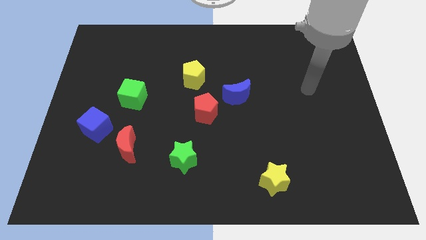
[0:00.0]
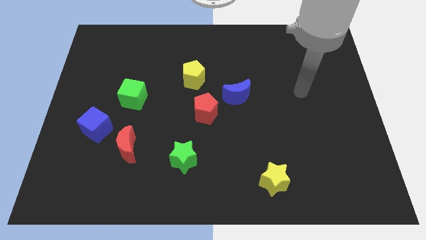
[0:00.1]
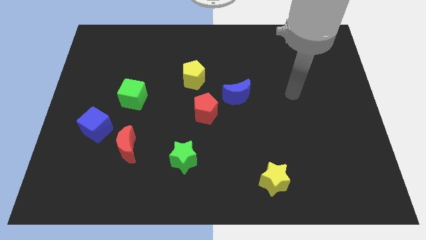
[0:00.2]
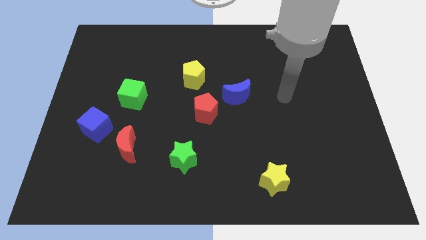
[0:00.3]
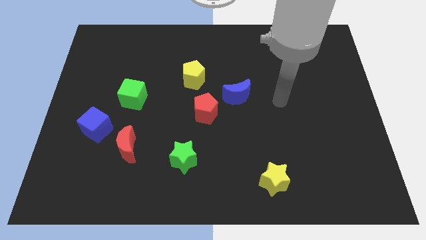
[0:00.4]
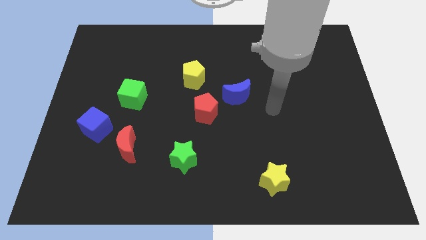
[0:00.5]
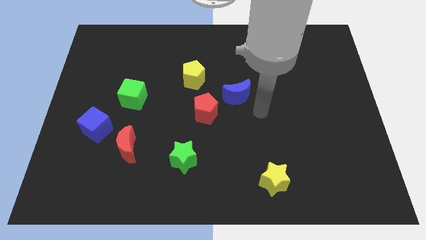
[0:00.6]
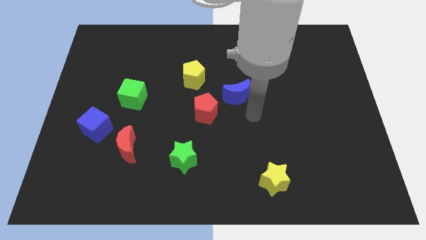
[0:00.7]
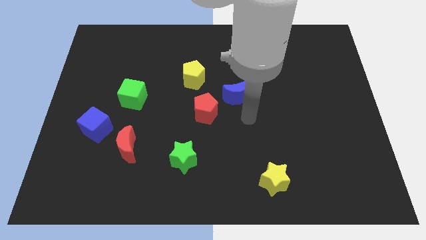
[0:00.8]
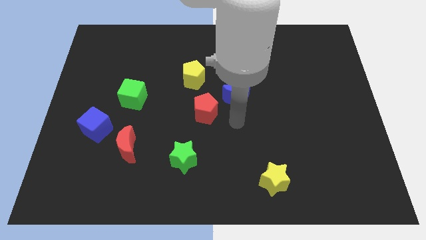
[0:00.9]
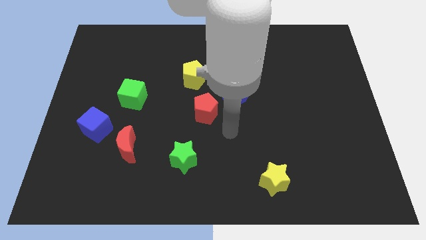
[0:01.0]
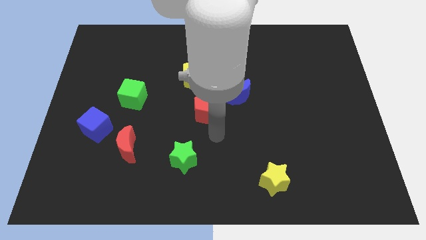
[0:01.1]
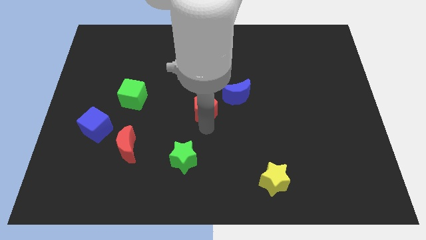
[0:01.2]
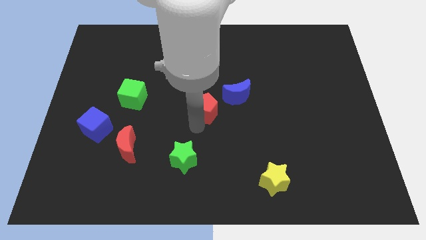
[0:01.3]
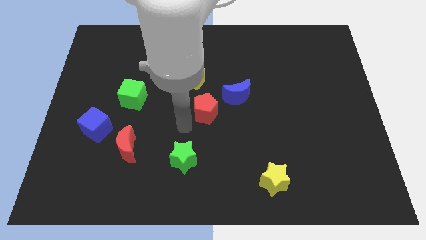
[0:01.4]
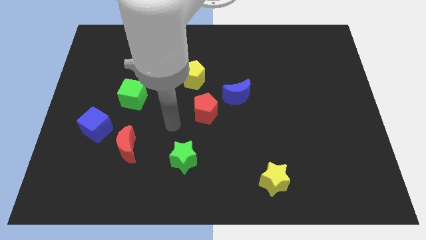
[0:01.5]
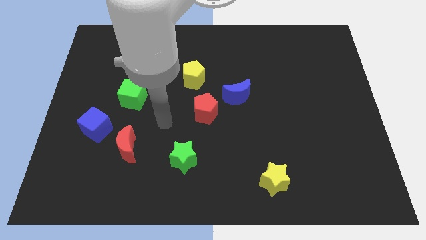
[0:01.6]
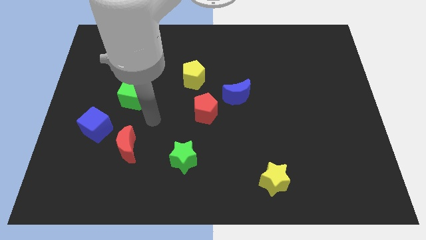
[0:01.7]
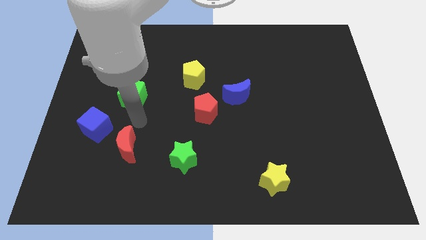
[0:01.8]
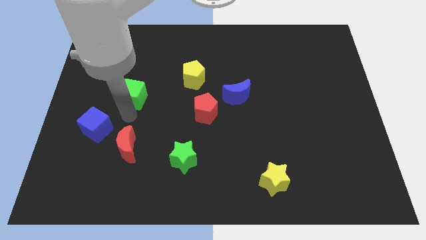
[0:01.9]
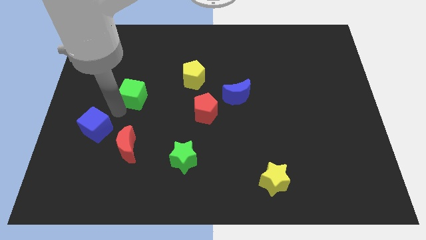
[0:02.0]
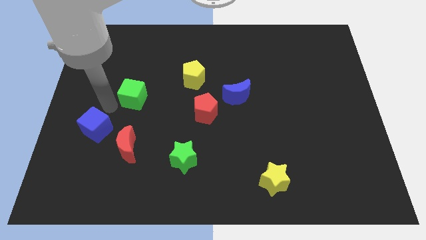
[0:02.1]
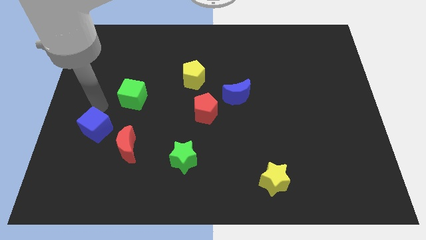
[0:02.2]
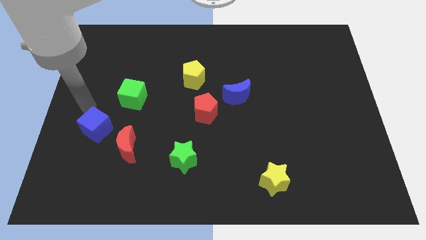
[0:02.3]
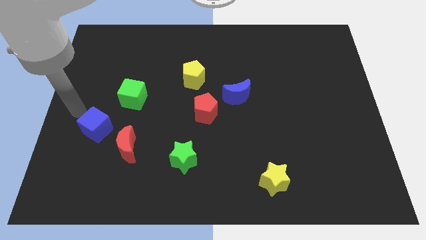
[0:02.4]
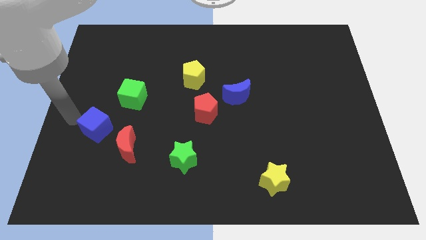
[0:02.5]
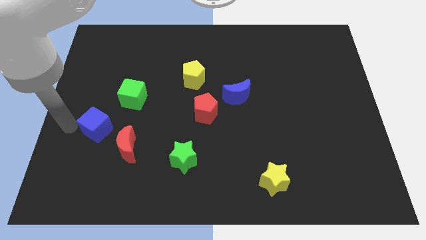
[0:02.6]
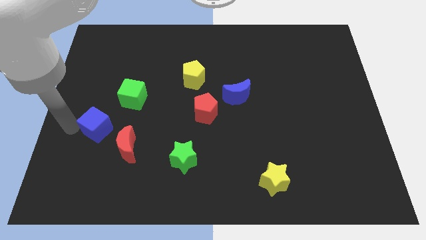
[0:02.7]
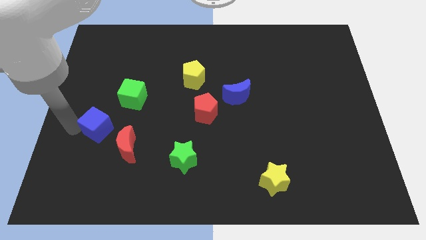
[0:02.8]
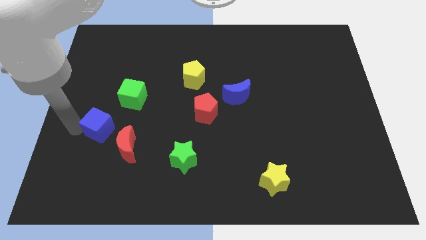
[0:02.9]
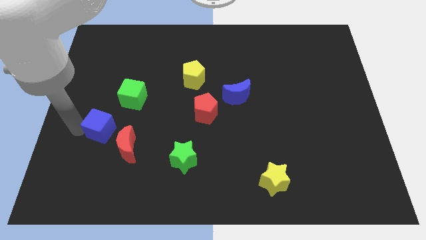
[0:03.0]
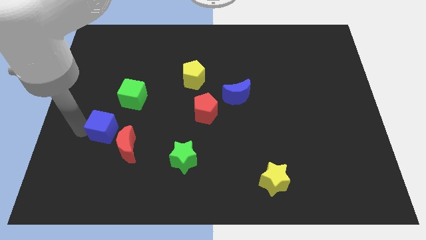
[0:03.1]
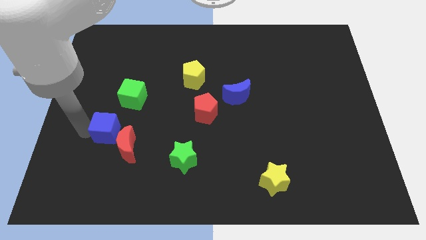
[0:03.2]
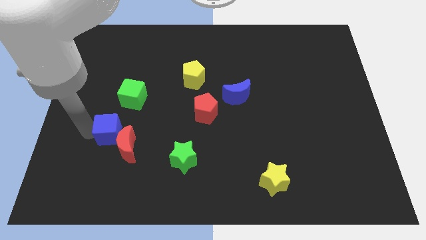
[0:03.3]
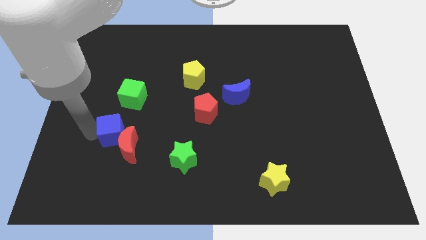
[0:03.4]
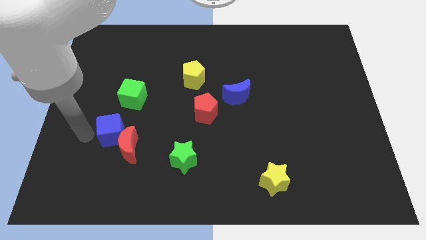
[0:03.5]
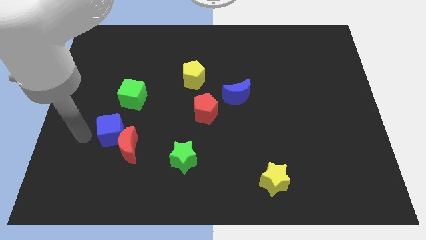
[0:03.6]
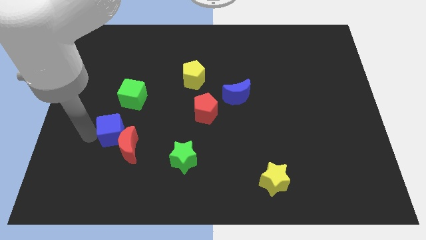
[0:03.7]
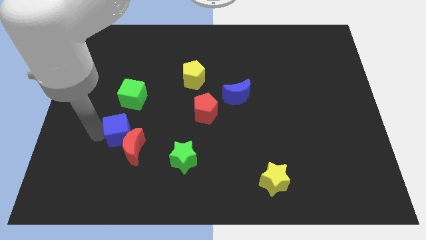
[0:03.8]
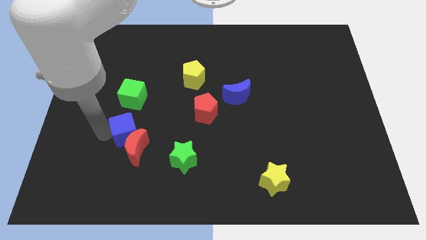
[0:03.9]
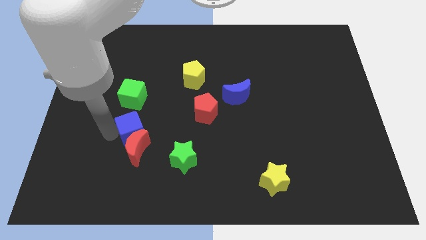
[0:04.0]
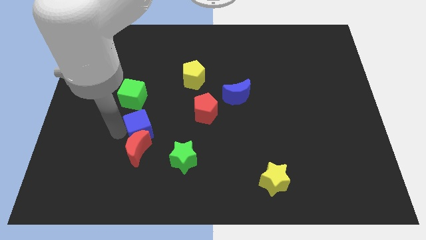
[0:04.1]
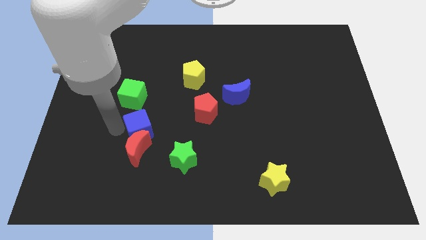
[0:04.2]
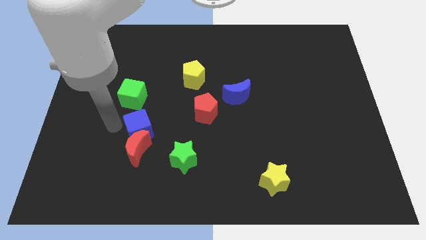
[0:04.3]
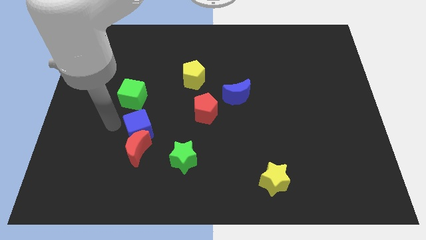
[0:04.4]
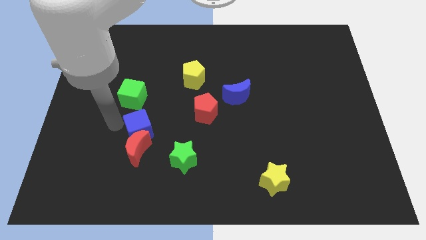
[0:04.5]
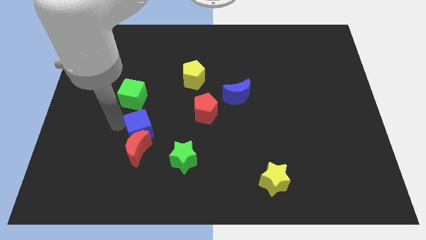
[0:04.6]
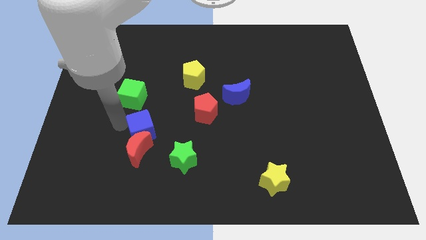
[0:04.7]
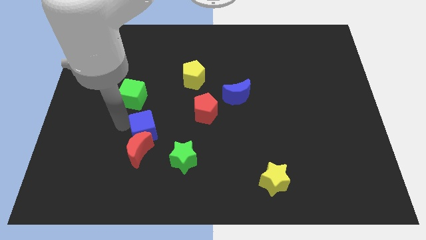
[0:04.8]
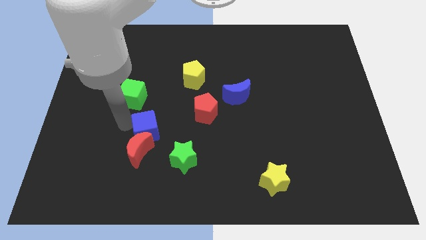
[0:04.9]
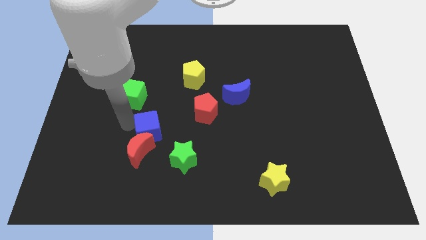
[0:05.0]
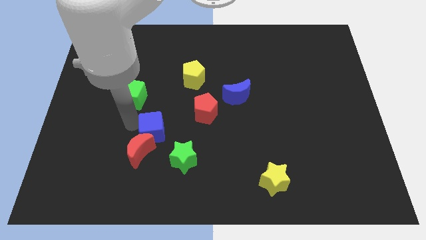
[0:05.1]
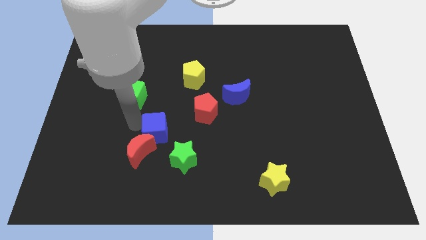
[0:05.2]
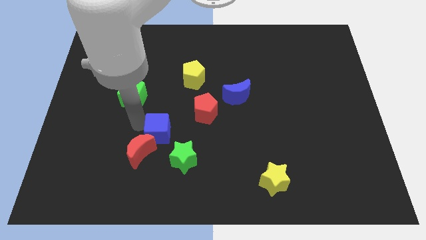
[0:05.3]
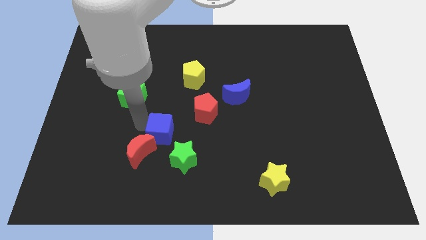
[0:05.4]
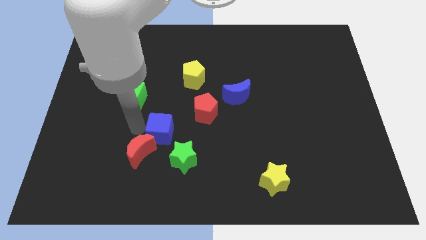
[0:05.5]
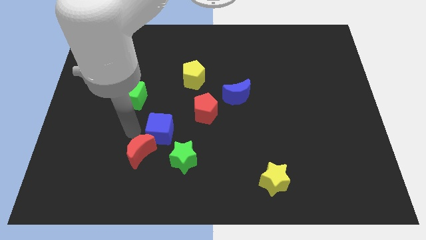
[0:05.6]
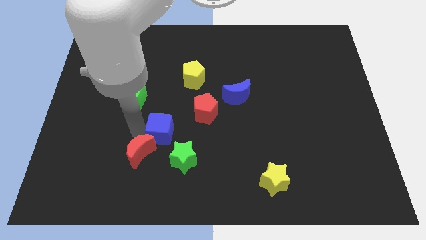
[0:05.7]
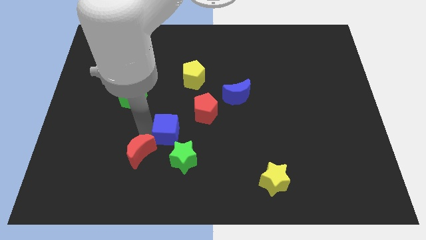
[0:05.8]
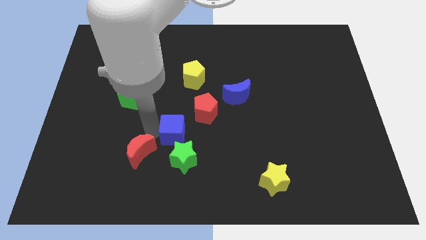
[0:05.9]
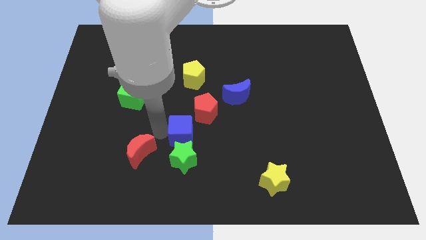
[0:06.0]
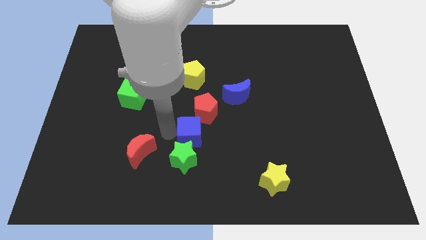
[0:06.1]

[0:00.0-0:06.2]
move the blue cube to the right

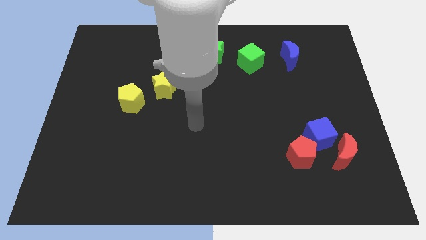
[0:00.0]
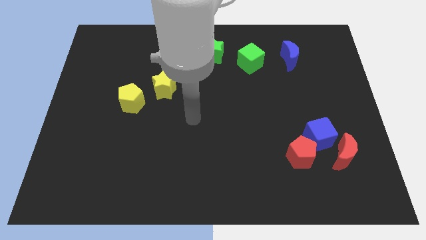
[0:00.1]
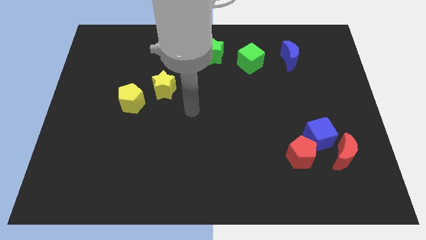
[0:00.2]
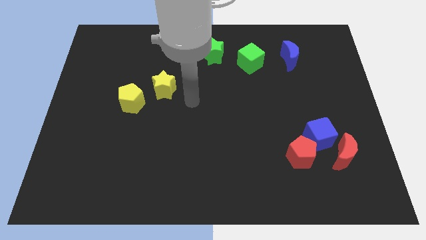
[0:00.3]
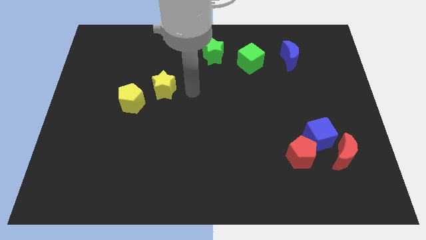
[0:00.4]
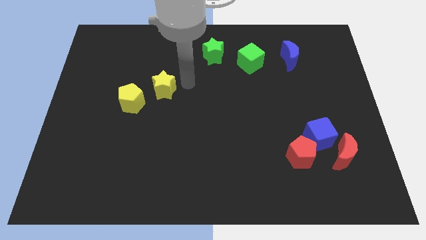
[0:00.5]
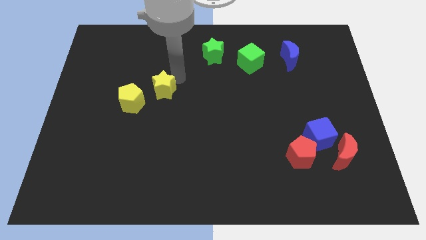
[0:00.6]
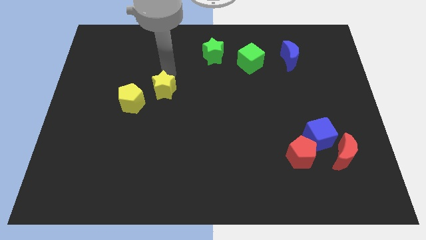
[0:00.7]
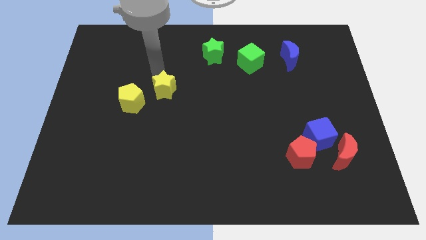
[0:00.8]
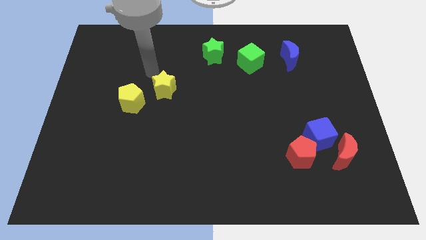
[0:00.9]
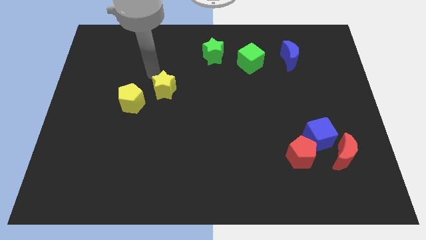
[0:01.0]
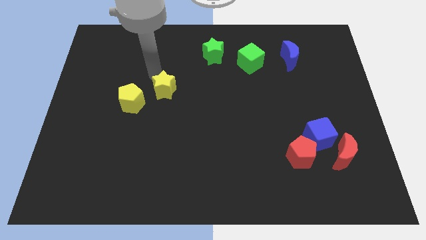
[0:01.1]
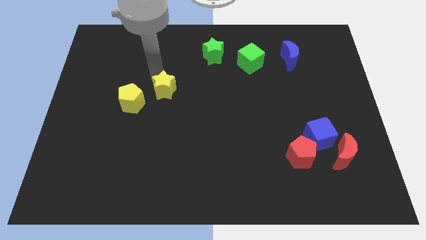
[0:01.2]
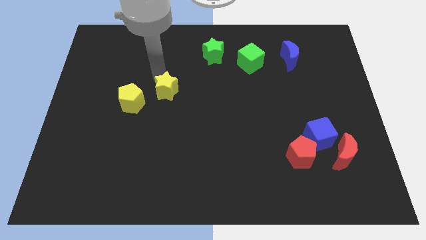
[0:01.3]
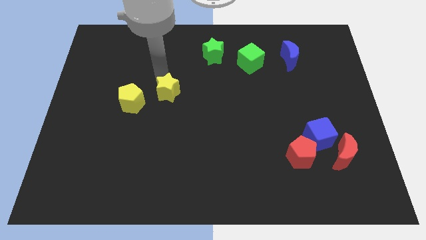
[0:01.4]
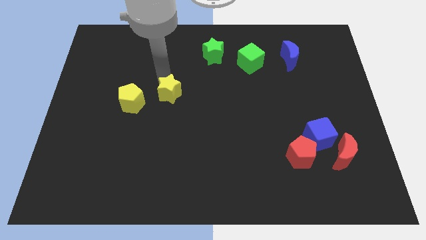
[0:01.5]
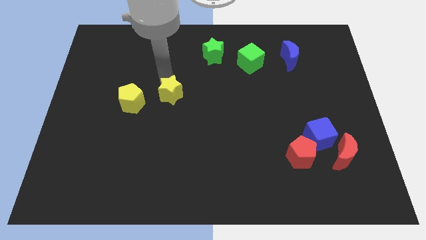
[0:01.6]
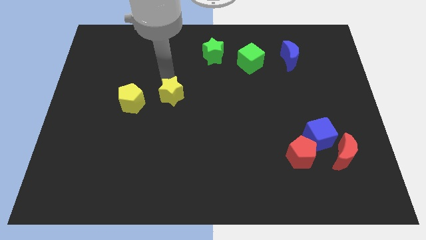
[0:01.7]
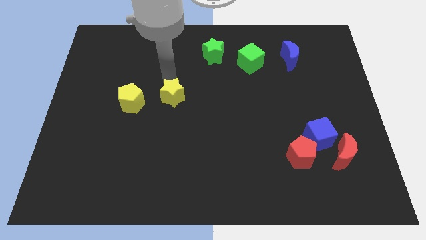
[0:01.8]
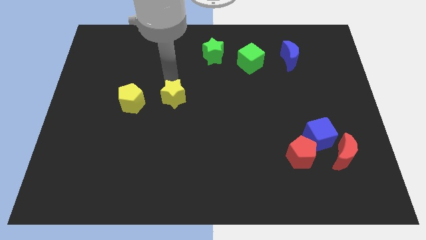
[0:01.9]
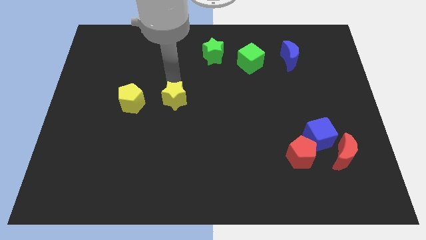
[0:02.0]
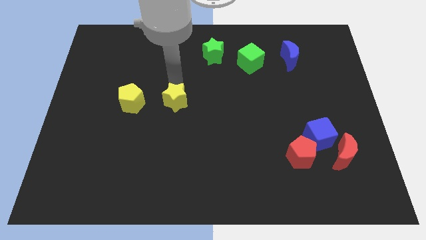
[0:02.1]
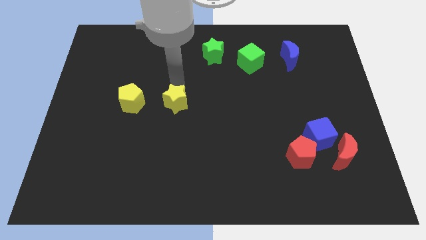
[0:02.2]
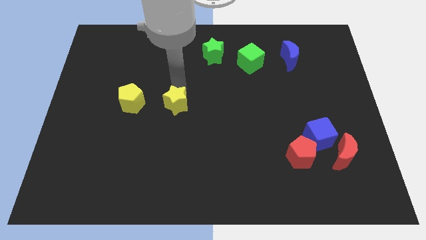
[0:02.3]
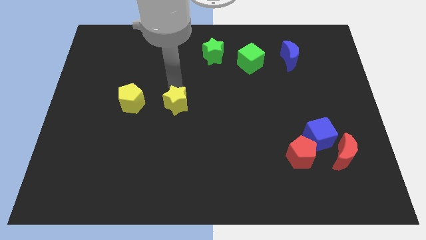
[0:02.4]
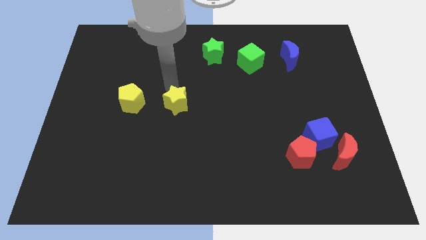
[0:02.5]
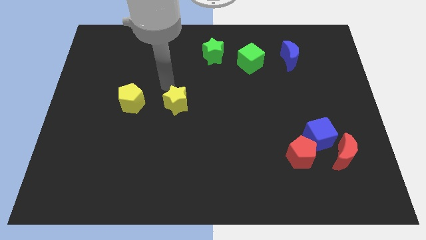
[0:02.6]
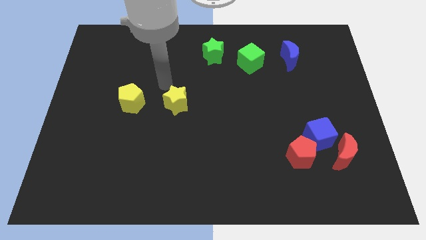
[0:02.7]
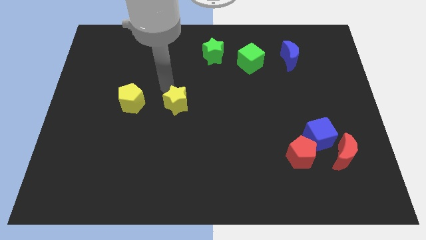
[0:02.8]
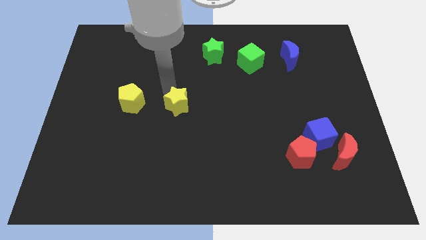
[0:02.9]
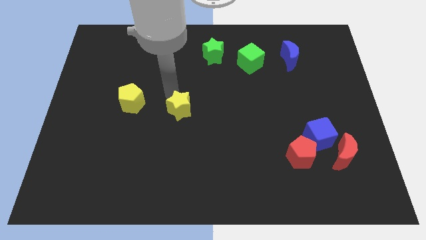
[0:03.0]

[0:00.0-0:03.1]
move the yellow star a bit down and then right
